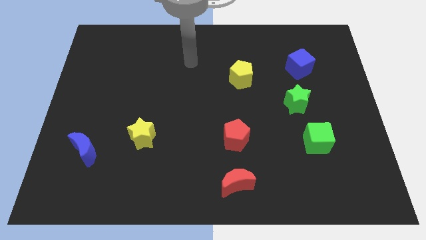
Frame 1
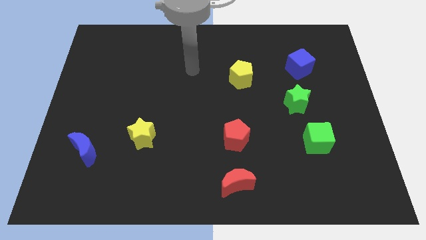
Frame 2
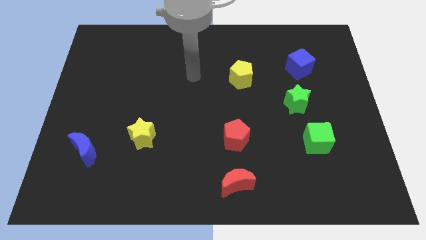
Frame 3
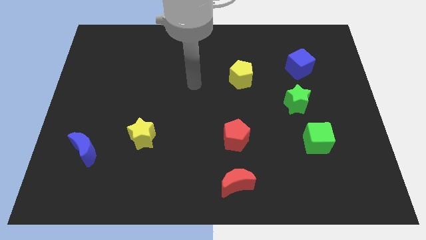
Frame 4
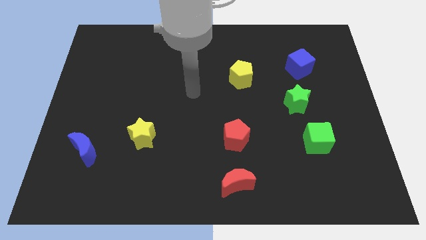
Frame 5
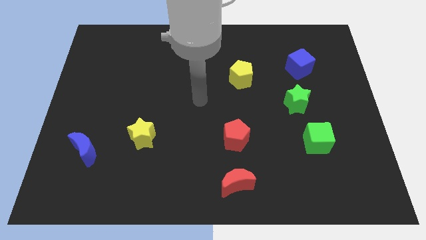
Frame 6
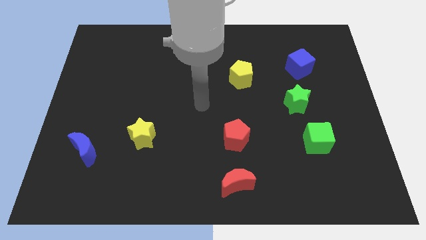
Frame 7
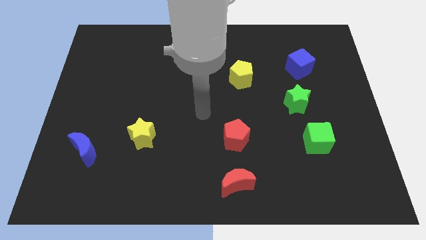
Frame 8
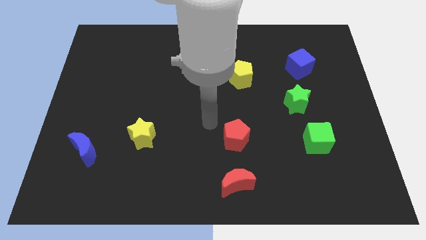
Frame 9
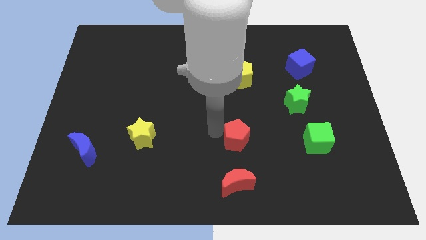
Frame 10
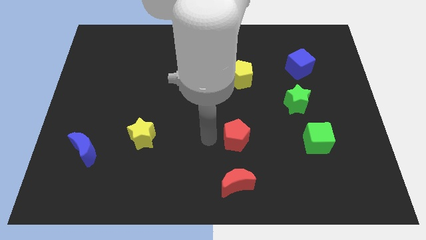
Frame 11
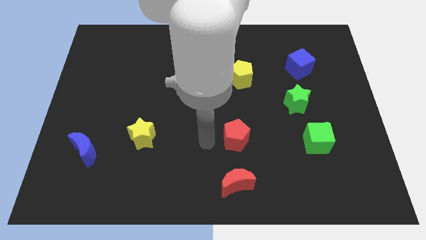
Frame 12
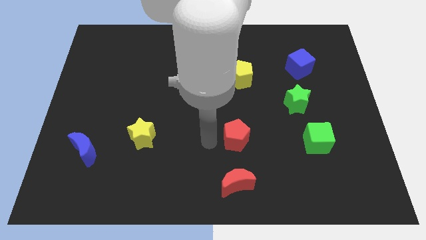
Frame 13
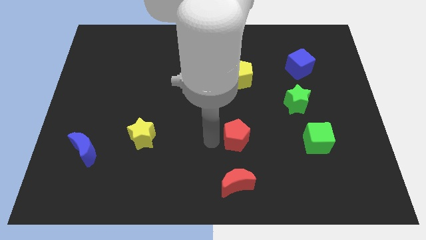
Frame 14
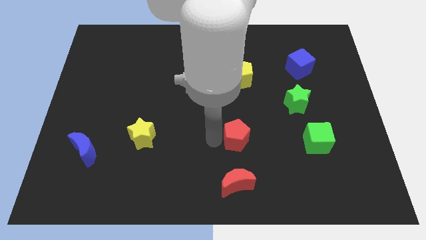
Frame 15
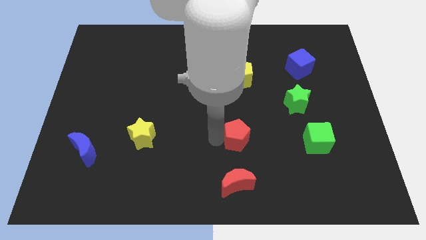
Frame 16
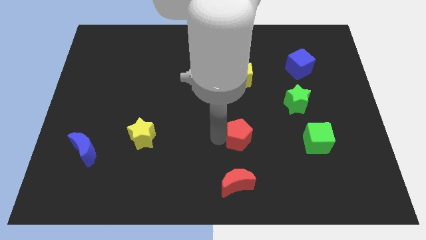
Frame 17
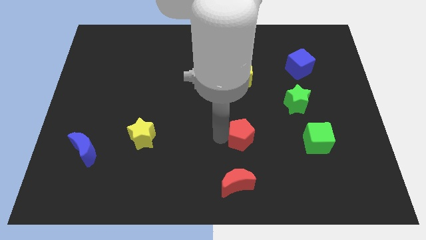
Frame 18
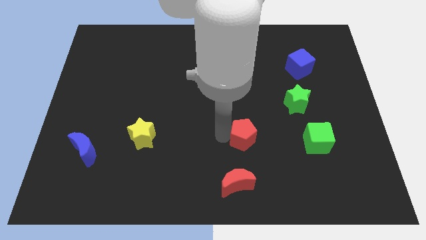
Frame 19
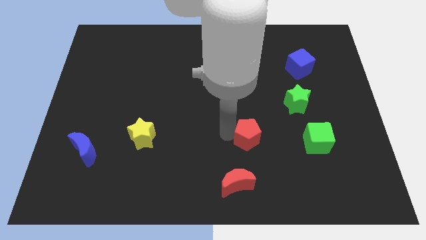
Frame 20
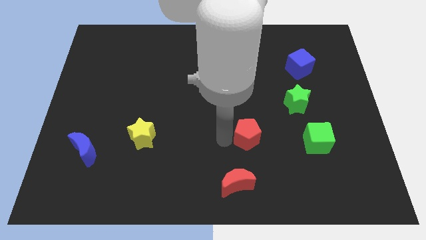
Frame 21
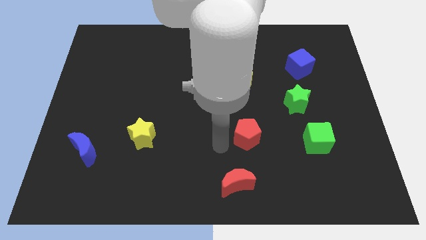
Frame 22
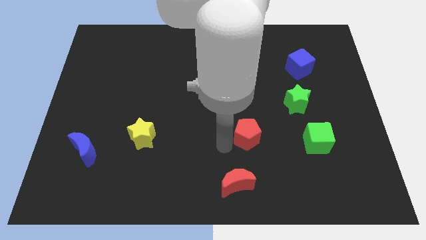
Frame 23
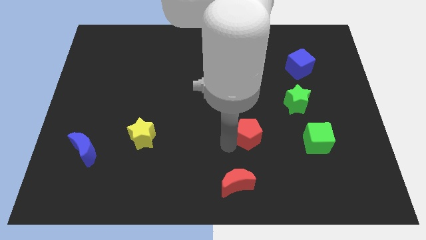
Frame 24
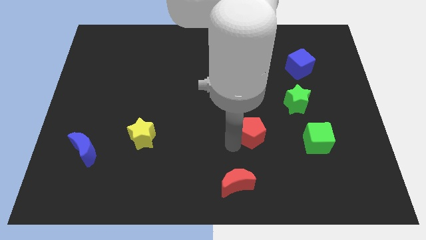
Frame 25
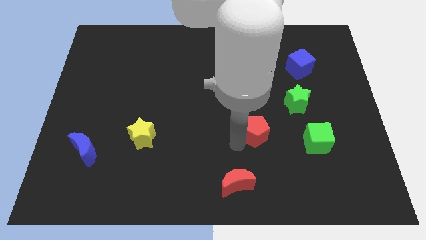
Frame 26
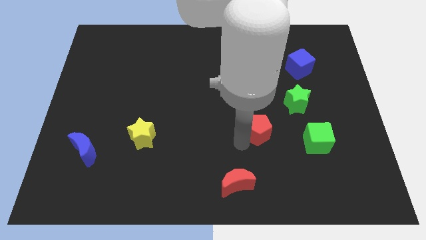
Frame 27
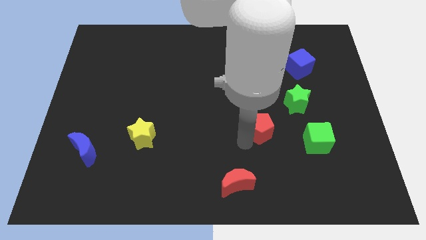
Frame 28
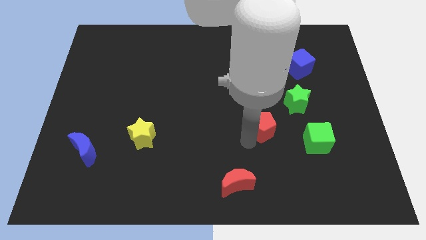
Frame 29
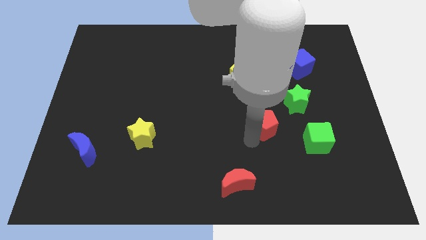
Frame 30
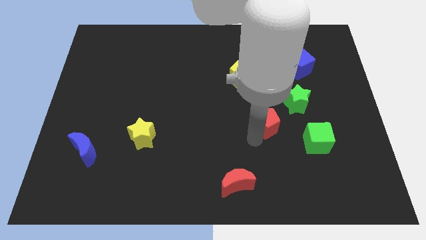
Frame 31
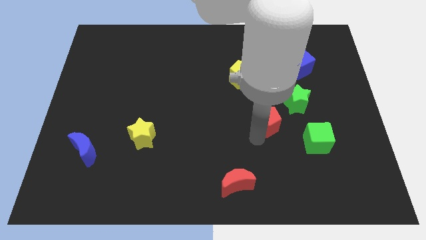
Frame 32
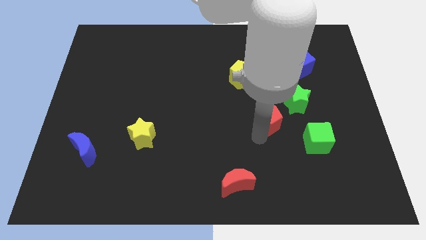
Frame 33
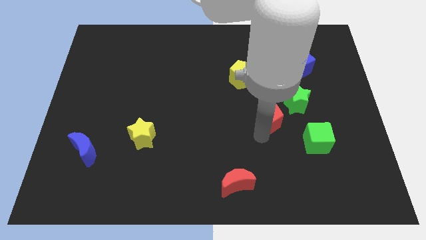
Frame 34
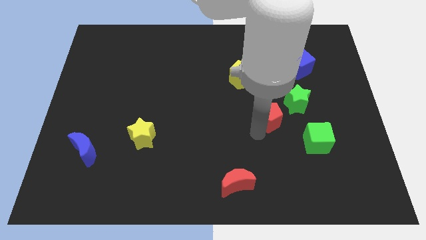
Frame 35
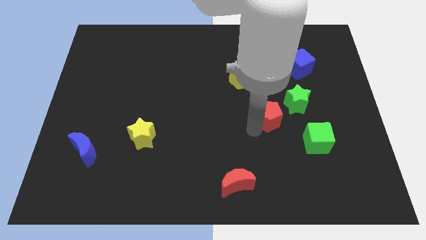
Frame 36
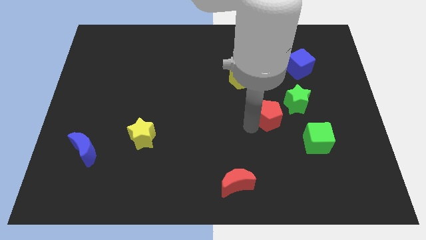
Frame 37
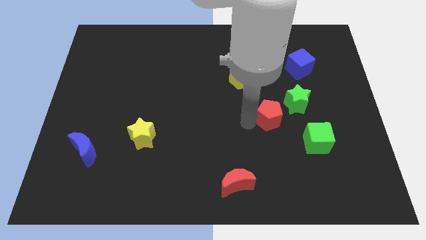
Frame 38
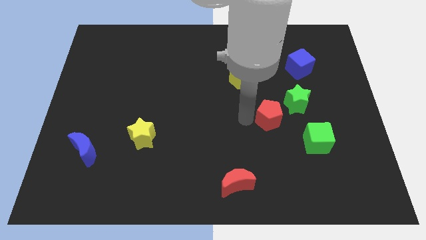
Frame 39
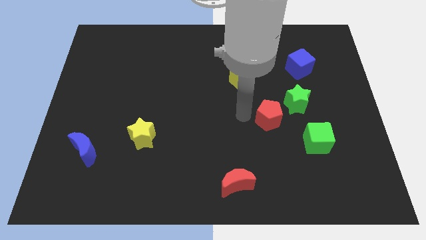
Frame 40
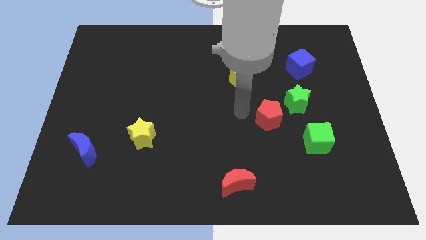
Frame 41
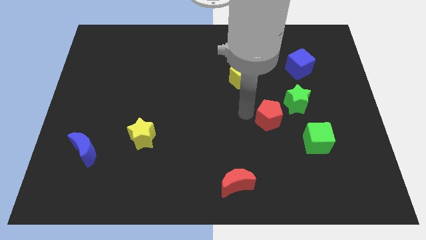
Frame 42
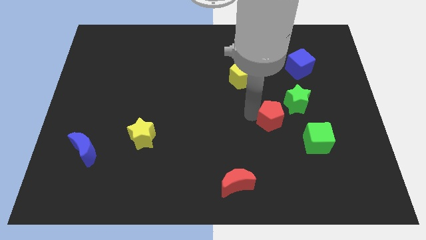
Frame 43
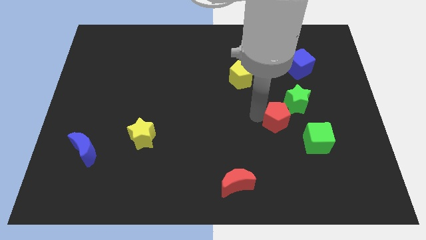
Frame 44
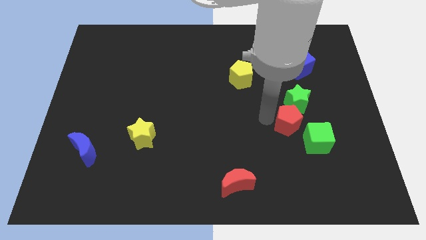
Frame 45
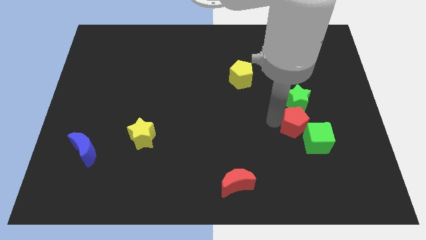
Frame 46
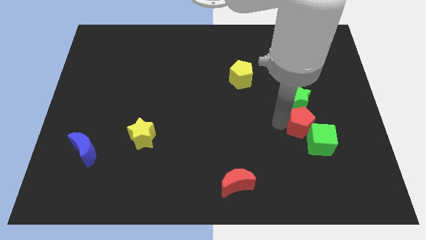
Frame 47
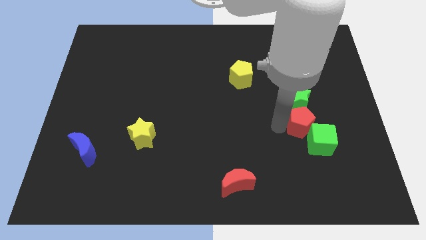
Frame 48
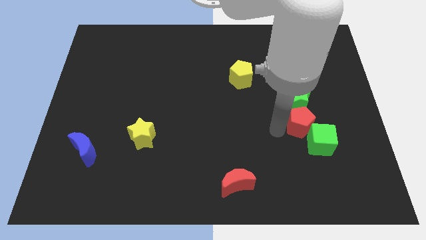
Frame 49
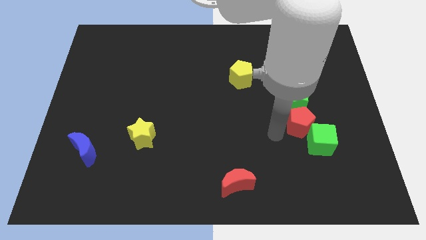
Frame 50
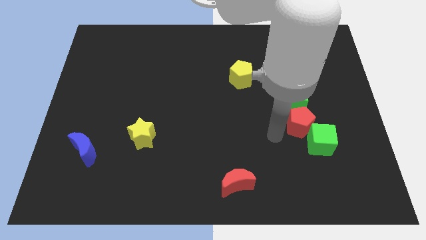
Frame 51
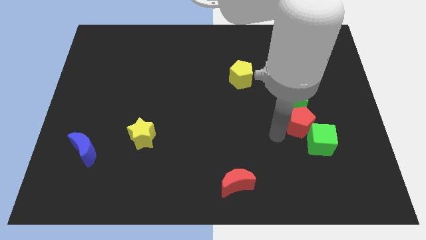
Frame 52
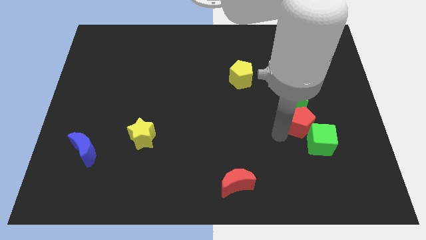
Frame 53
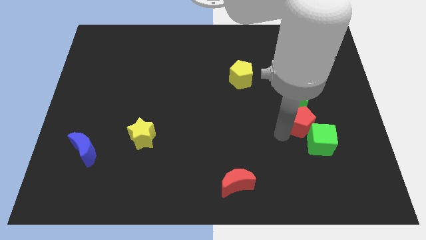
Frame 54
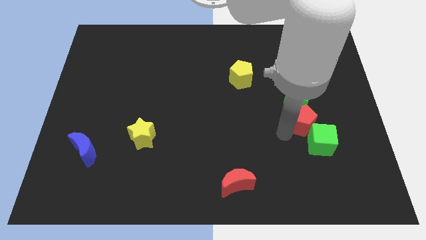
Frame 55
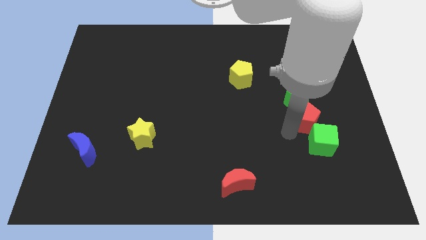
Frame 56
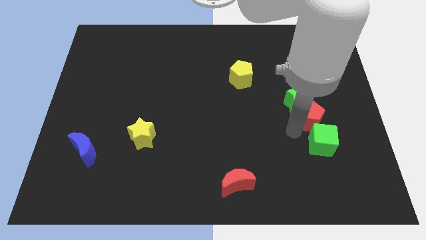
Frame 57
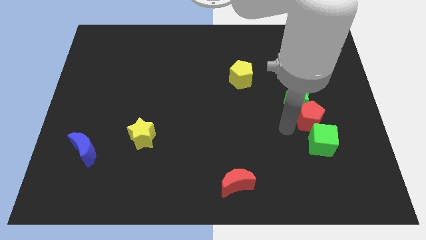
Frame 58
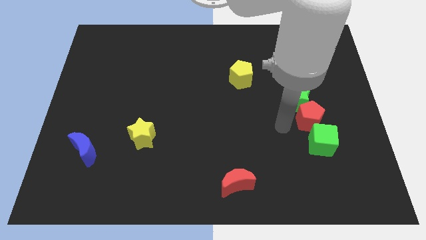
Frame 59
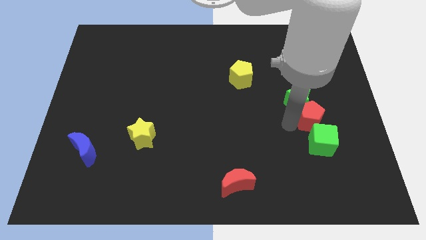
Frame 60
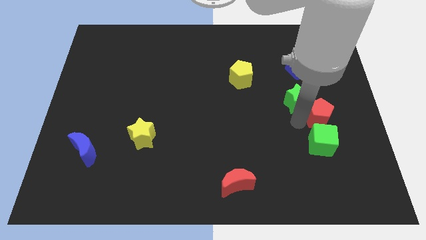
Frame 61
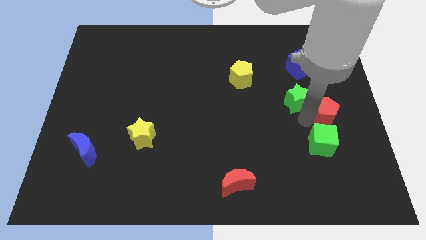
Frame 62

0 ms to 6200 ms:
slide the red pentagon to the right side
